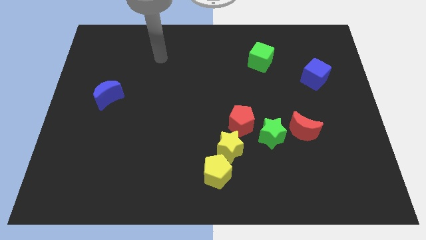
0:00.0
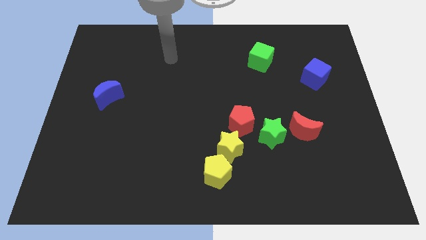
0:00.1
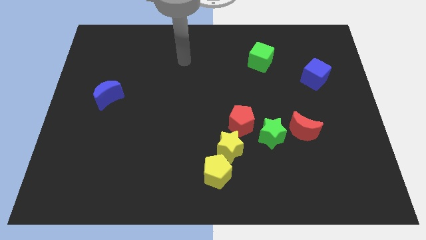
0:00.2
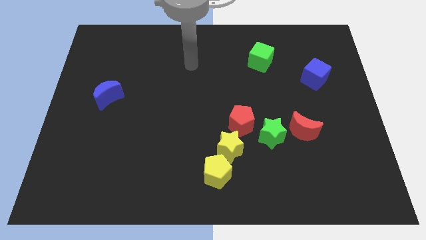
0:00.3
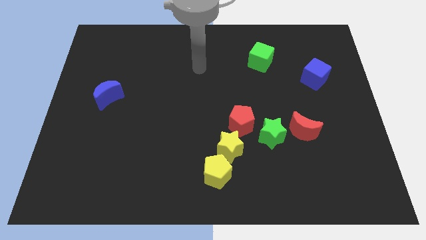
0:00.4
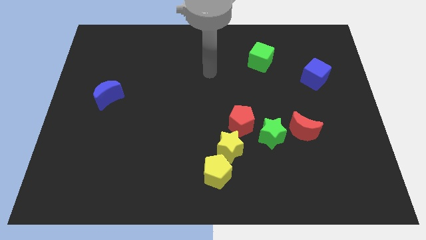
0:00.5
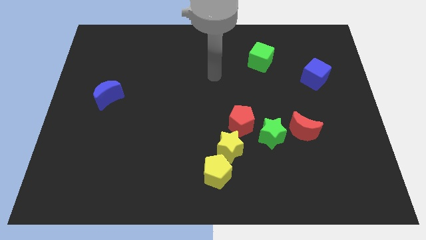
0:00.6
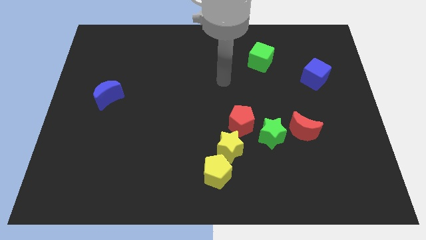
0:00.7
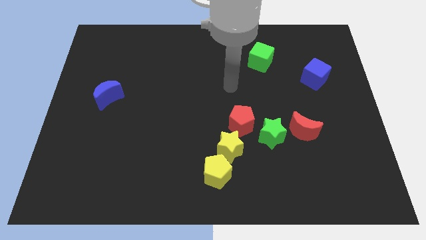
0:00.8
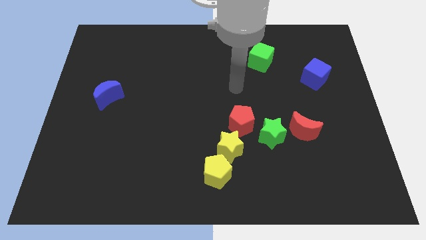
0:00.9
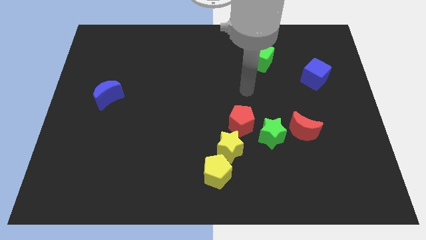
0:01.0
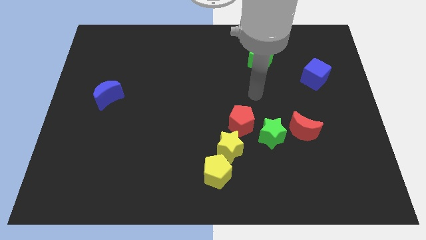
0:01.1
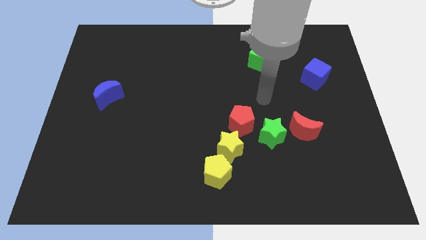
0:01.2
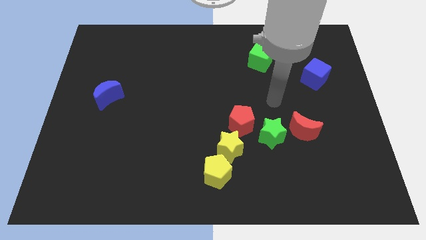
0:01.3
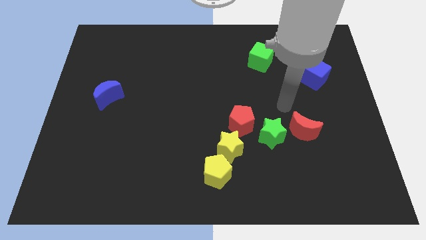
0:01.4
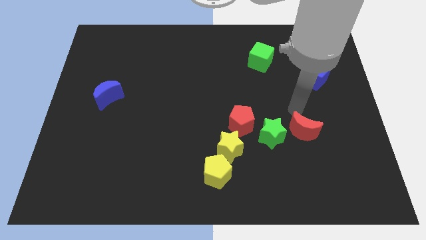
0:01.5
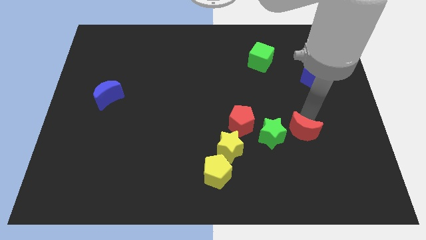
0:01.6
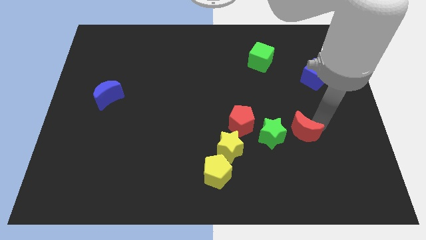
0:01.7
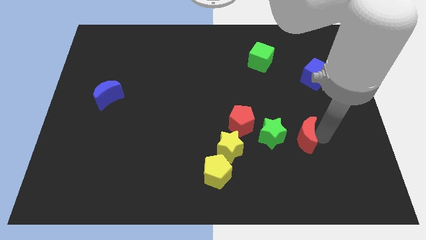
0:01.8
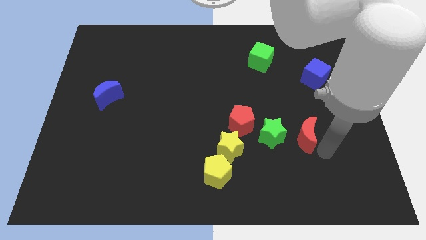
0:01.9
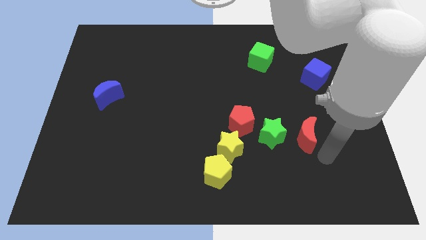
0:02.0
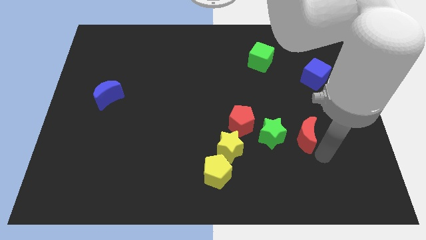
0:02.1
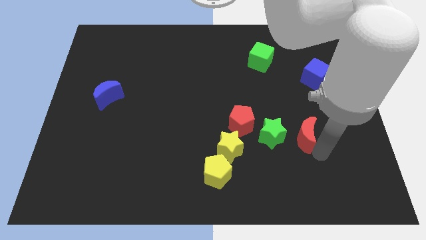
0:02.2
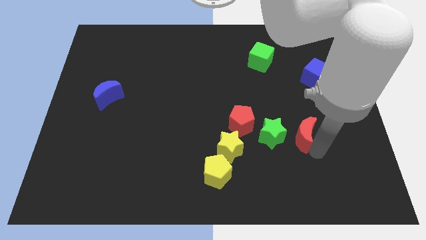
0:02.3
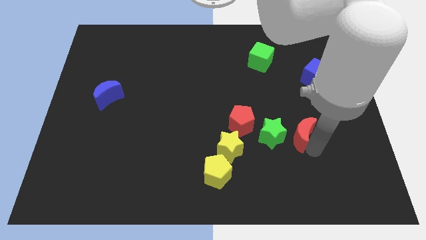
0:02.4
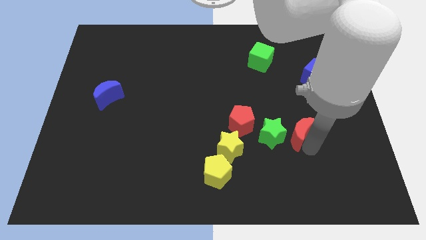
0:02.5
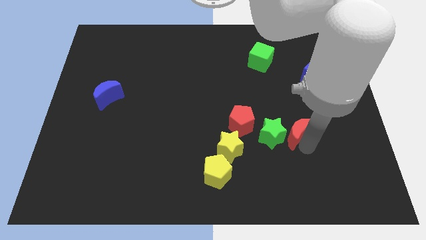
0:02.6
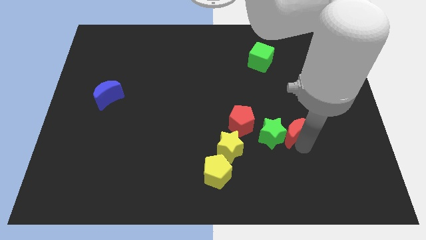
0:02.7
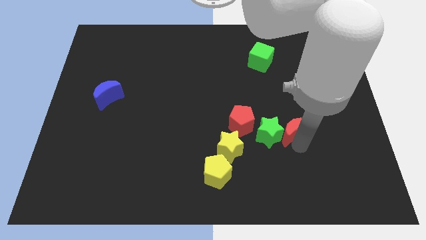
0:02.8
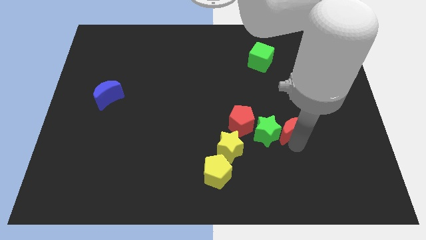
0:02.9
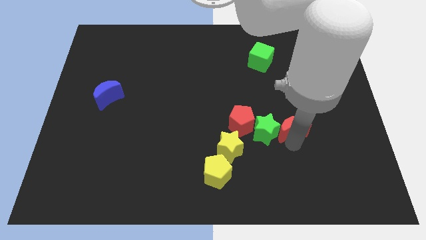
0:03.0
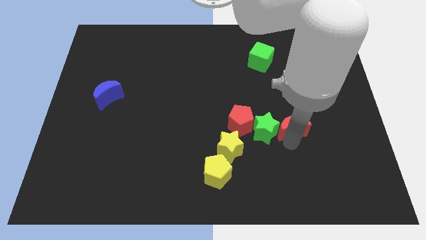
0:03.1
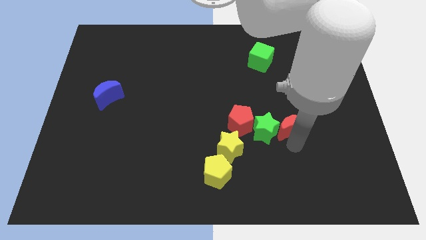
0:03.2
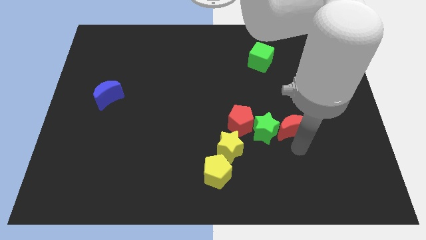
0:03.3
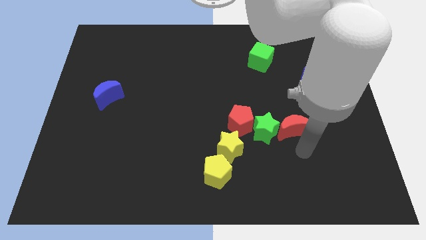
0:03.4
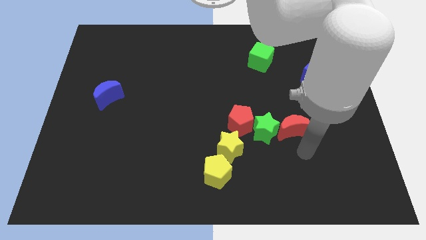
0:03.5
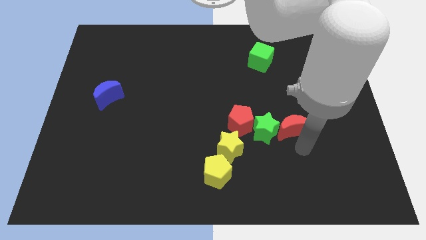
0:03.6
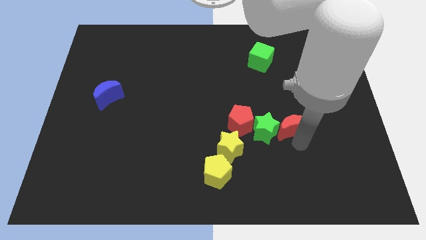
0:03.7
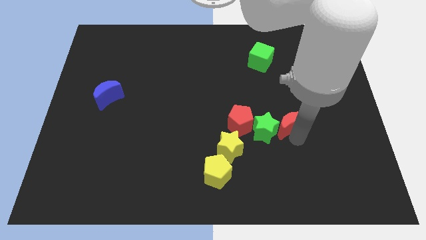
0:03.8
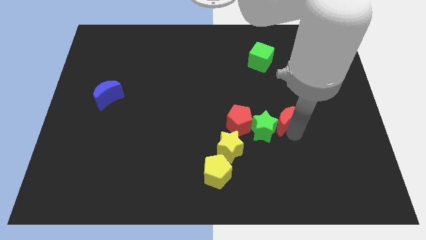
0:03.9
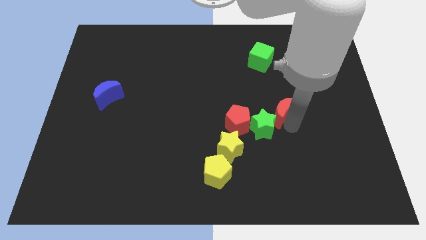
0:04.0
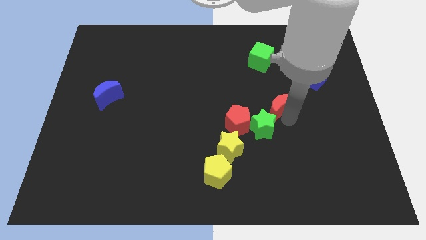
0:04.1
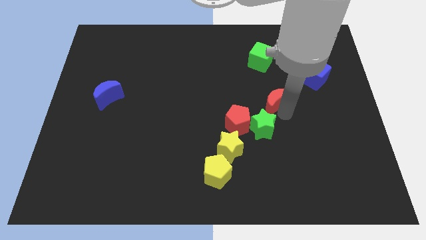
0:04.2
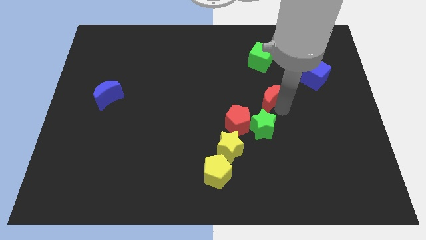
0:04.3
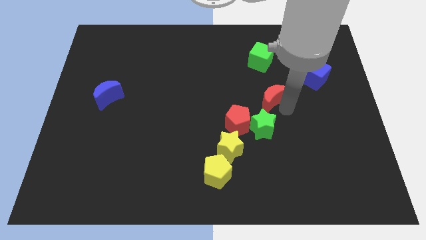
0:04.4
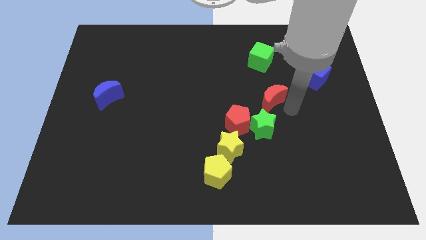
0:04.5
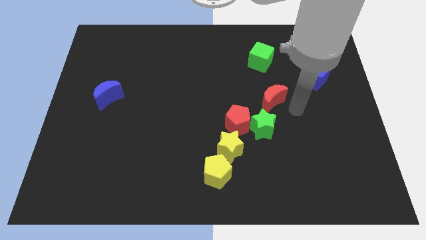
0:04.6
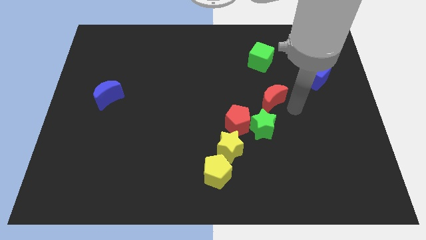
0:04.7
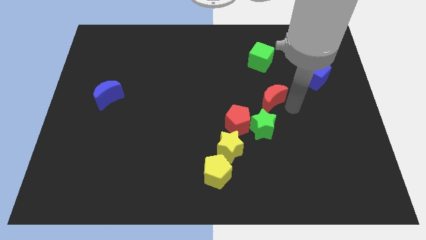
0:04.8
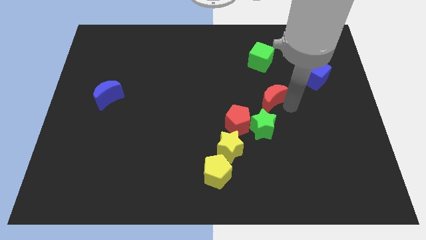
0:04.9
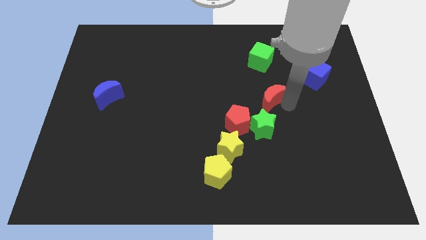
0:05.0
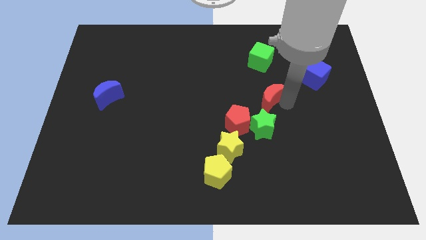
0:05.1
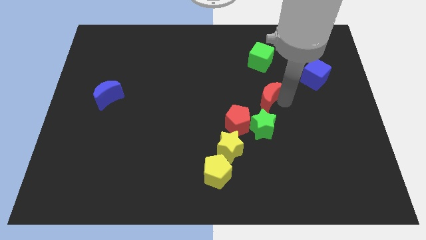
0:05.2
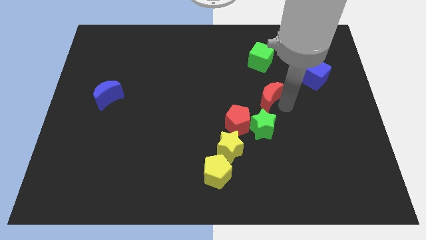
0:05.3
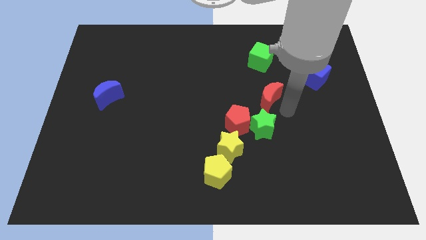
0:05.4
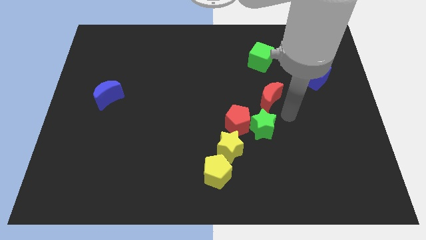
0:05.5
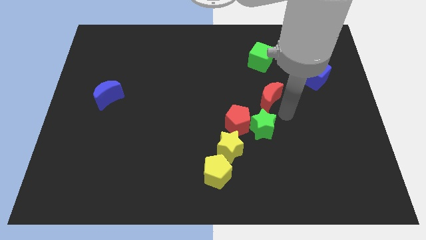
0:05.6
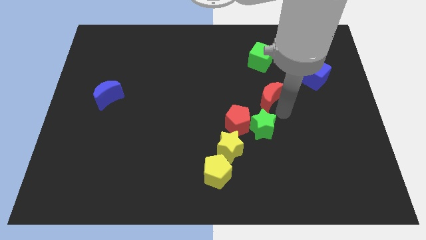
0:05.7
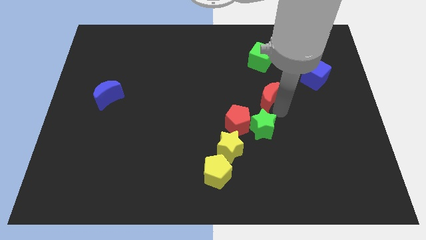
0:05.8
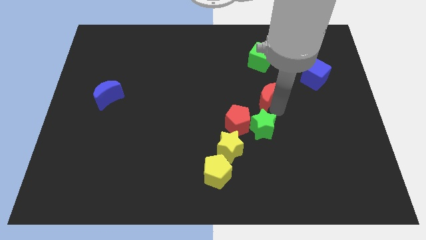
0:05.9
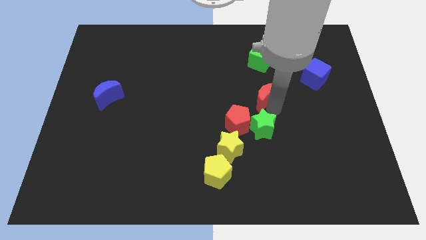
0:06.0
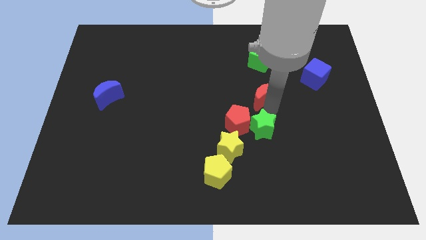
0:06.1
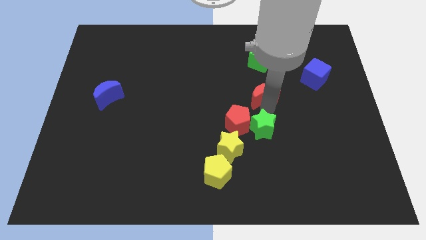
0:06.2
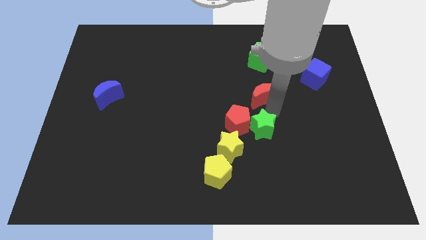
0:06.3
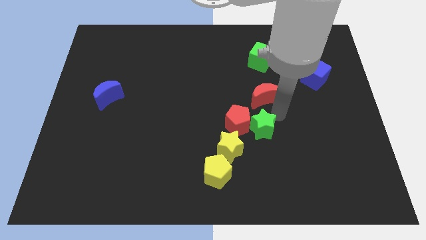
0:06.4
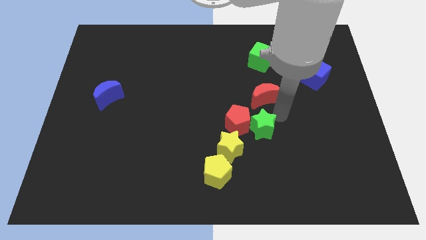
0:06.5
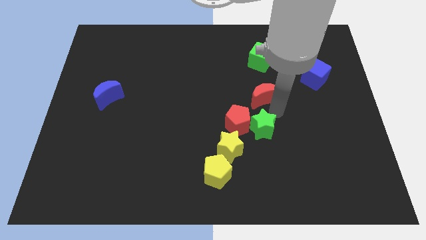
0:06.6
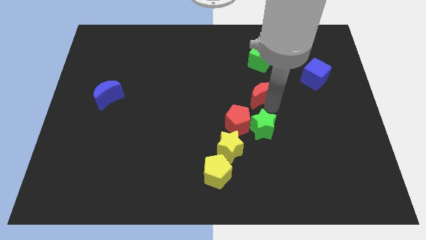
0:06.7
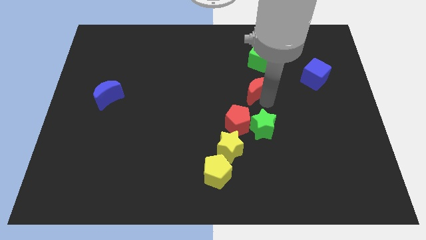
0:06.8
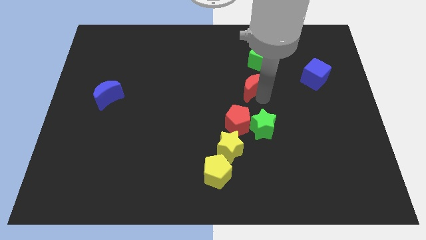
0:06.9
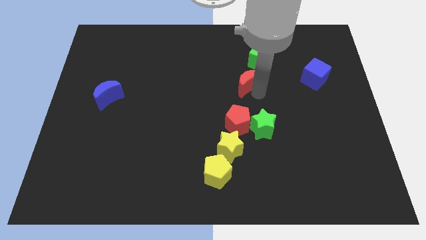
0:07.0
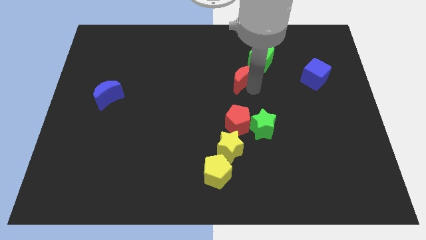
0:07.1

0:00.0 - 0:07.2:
slide the red moon upwards and left

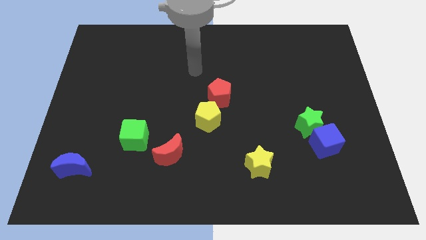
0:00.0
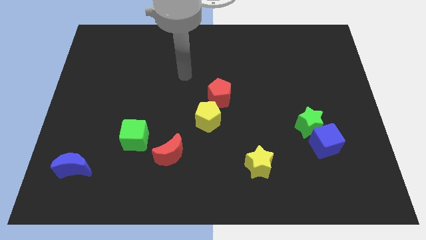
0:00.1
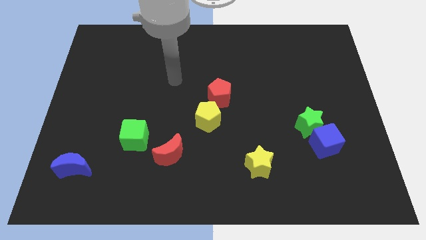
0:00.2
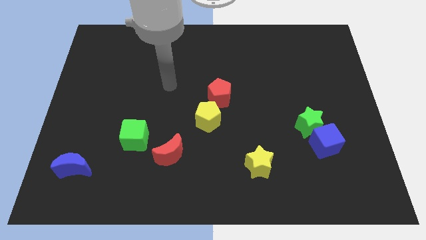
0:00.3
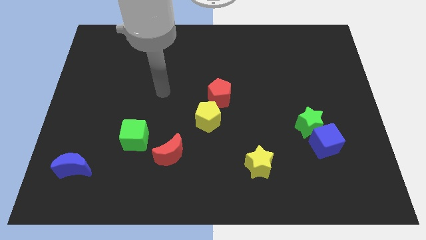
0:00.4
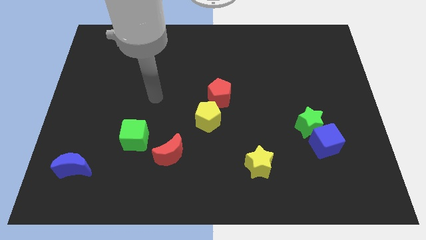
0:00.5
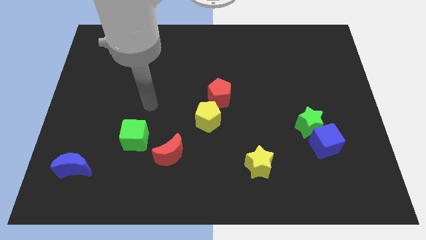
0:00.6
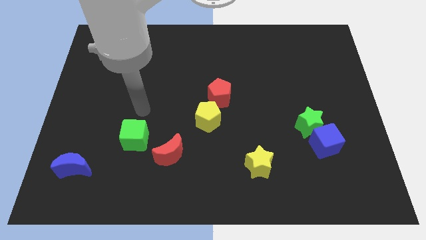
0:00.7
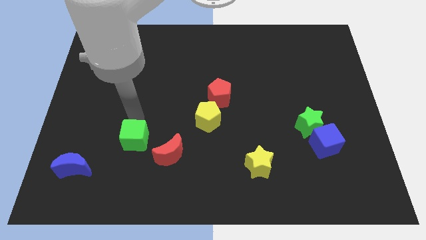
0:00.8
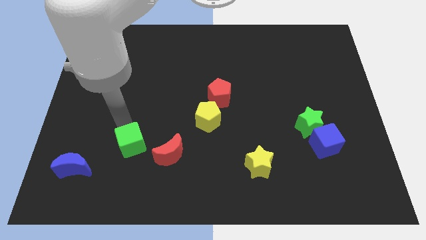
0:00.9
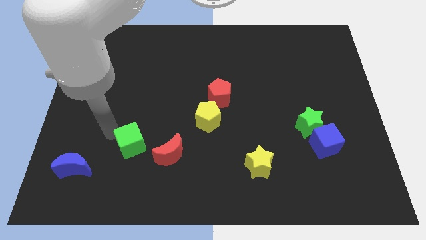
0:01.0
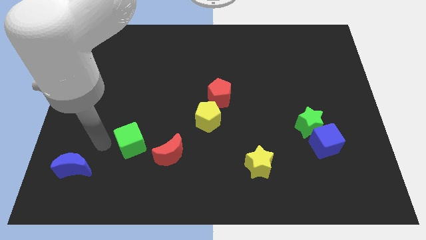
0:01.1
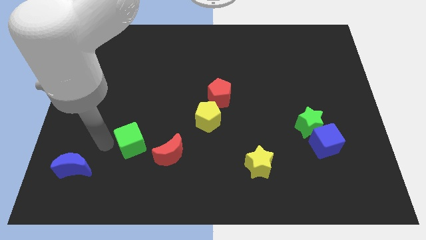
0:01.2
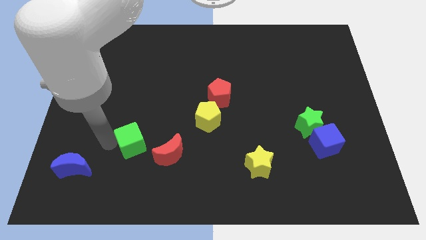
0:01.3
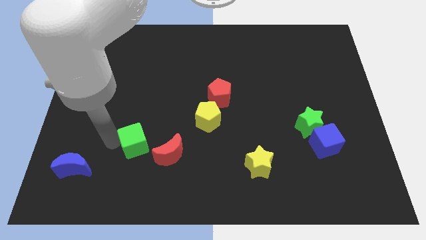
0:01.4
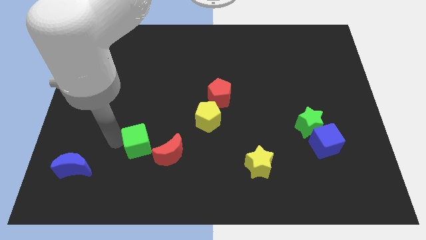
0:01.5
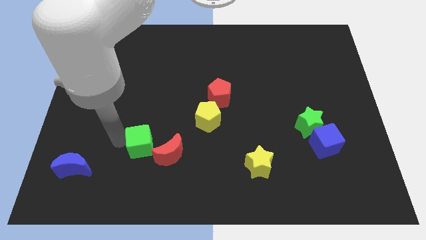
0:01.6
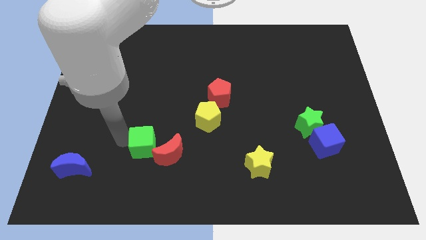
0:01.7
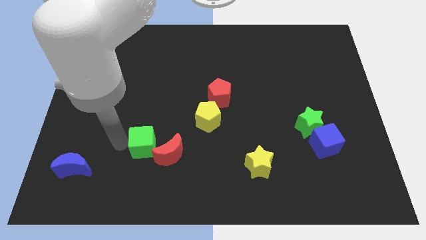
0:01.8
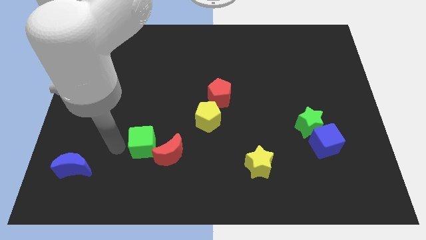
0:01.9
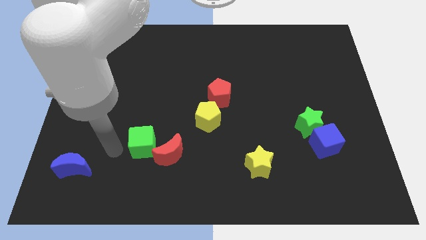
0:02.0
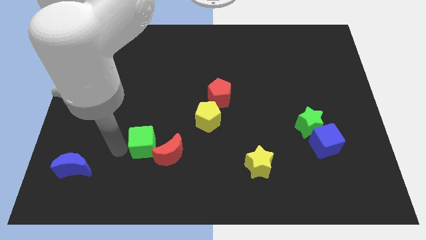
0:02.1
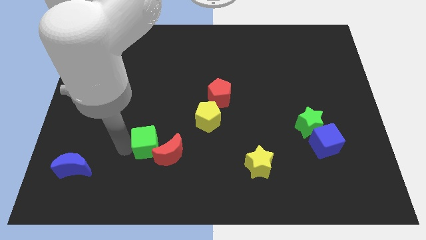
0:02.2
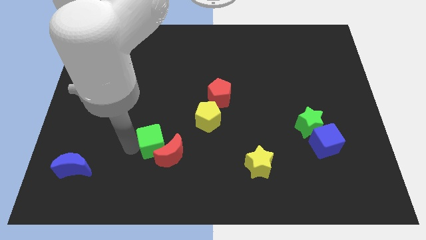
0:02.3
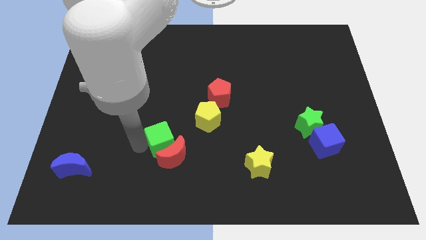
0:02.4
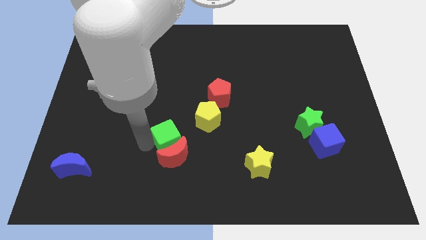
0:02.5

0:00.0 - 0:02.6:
slightly slide the green cube right
